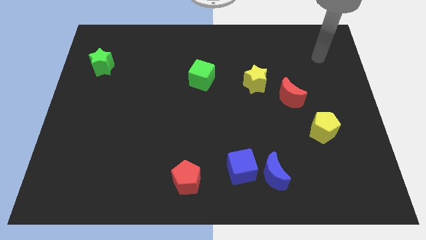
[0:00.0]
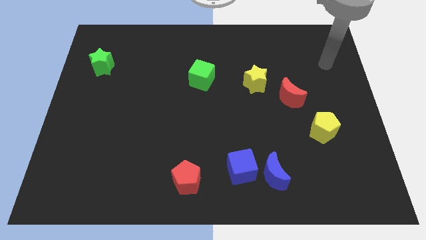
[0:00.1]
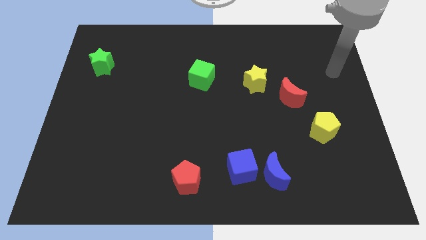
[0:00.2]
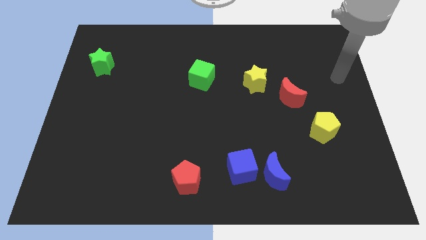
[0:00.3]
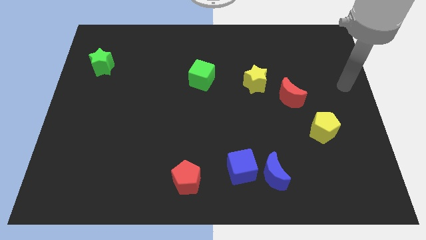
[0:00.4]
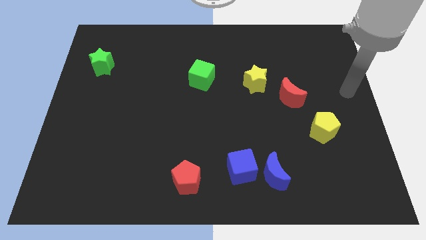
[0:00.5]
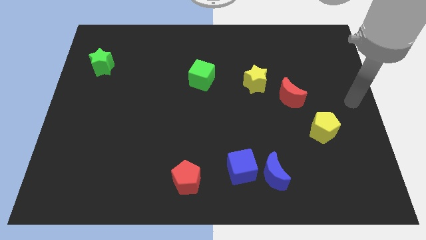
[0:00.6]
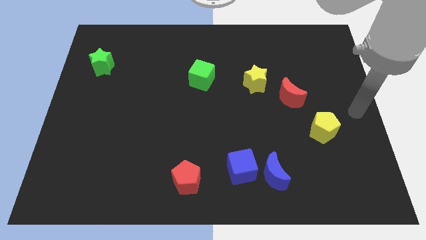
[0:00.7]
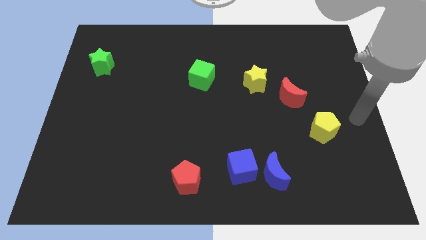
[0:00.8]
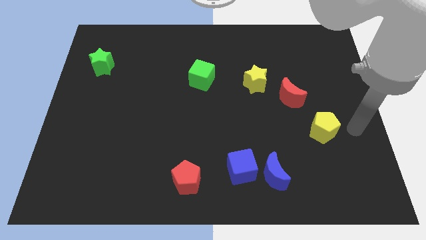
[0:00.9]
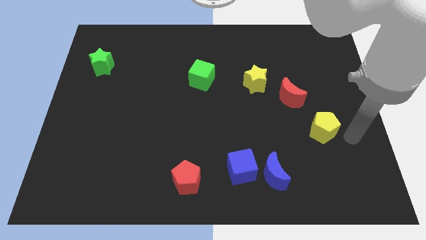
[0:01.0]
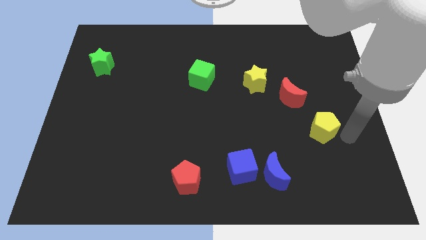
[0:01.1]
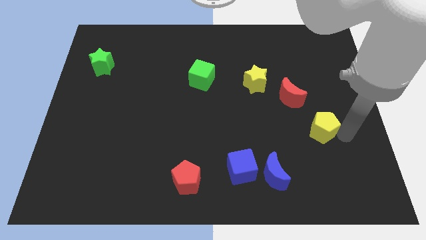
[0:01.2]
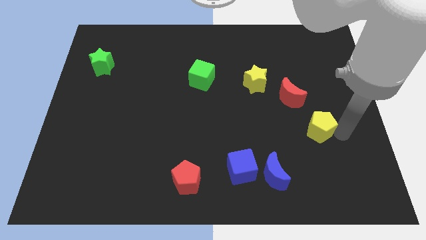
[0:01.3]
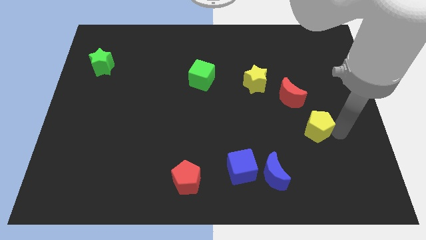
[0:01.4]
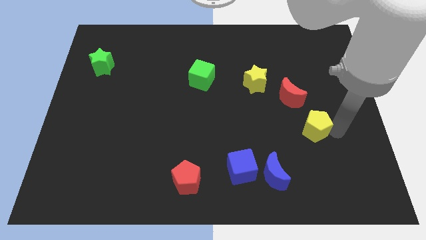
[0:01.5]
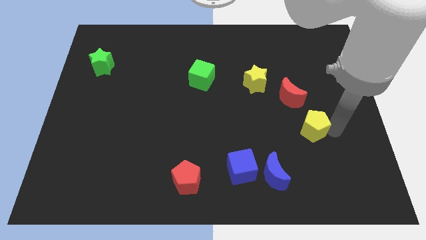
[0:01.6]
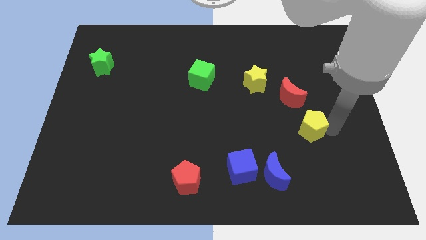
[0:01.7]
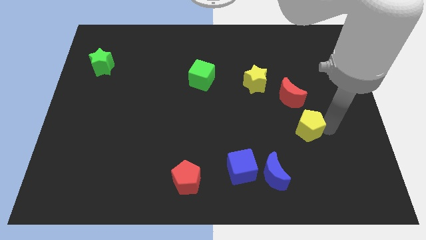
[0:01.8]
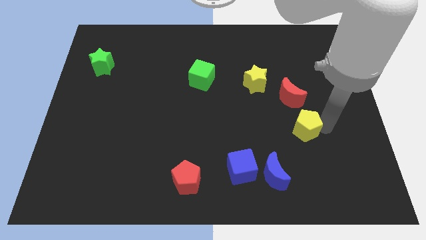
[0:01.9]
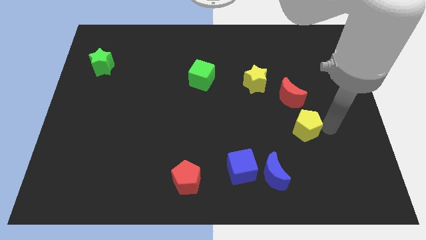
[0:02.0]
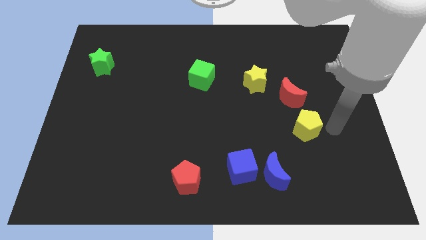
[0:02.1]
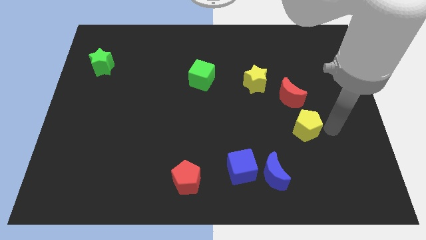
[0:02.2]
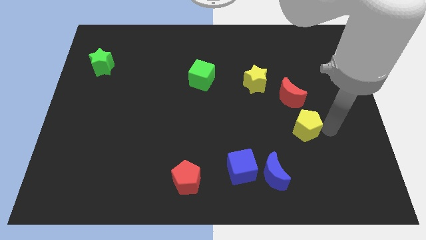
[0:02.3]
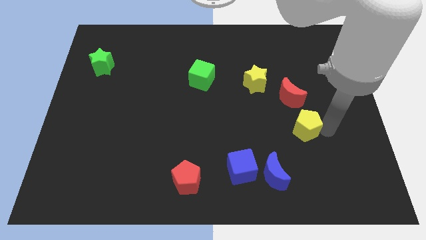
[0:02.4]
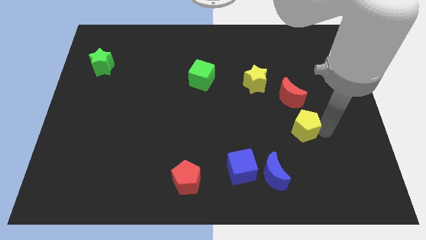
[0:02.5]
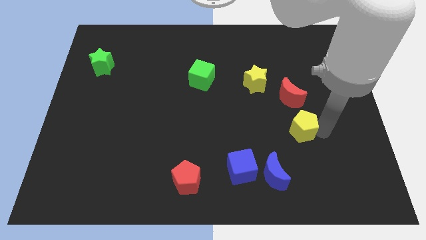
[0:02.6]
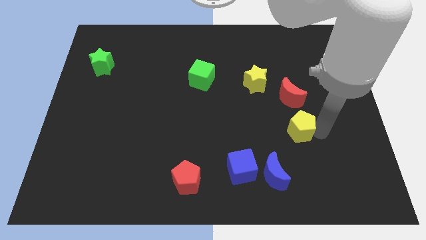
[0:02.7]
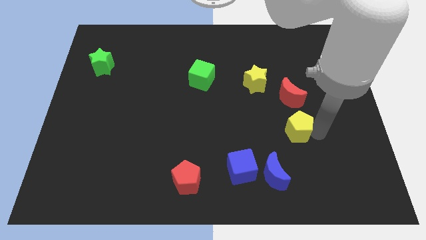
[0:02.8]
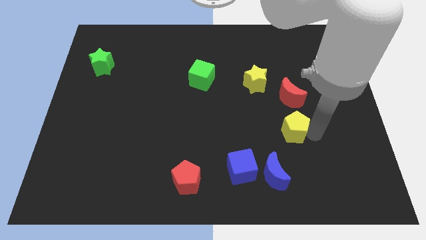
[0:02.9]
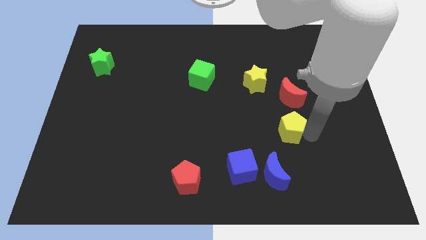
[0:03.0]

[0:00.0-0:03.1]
push the yellow pentagon a little to the left

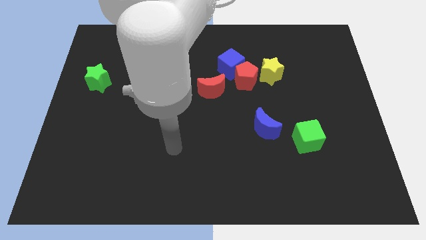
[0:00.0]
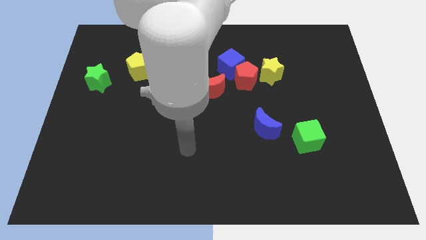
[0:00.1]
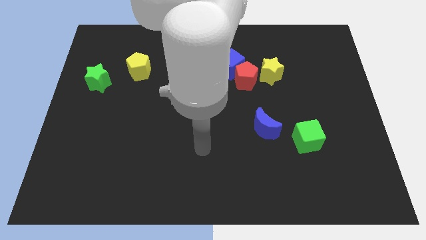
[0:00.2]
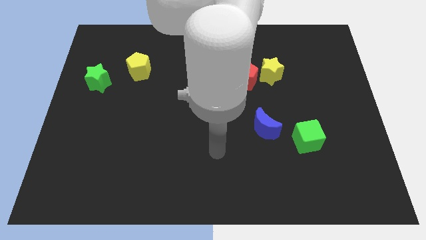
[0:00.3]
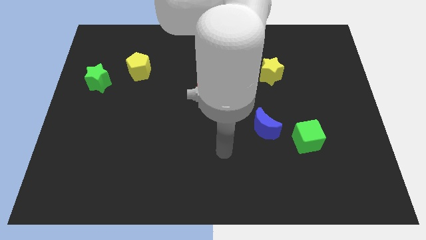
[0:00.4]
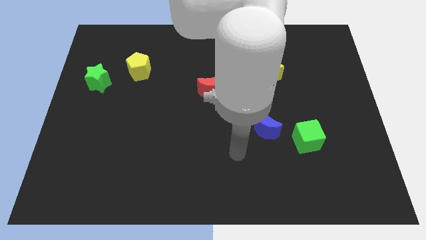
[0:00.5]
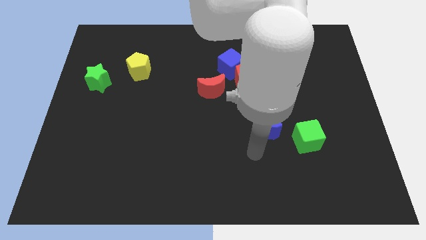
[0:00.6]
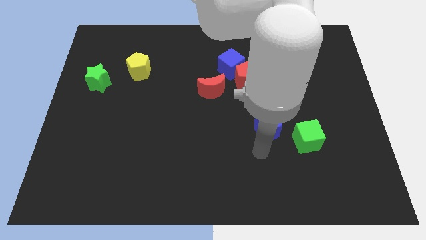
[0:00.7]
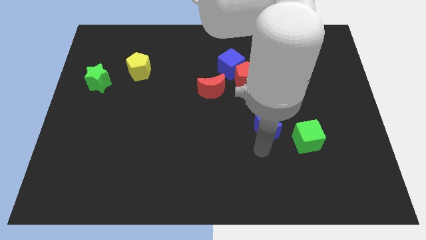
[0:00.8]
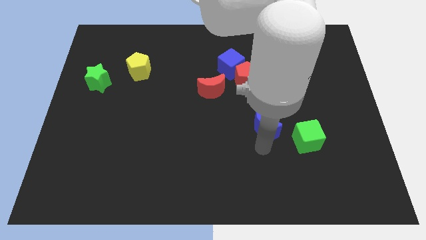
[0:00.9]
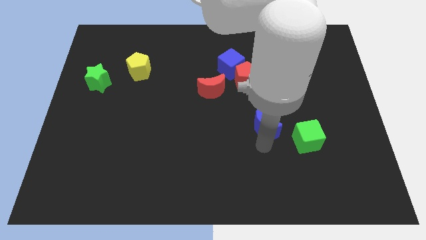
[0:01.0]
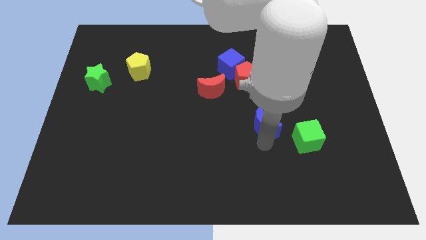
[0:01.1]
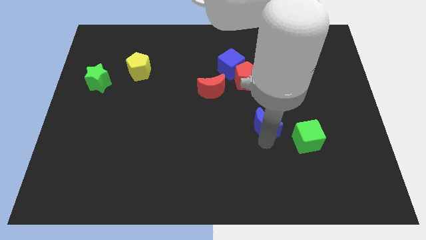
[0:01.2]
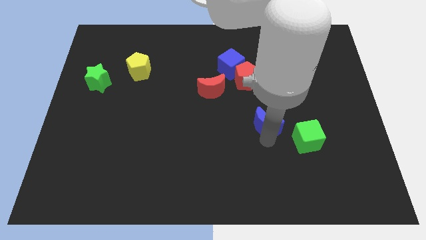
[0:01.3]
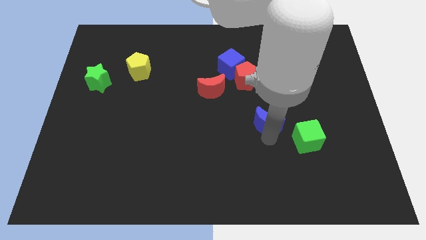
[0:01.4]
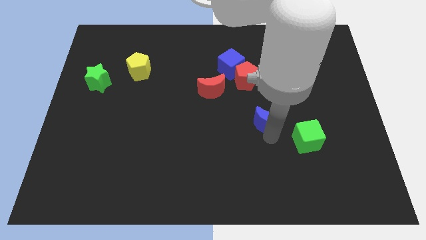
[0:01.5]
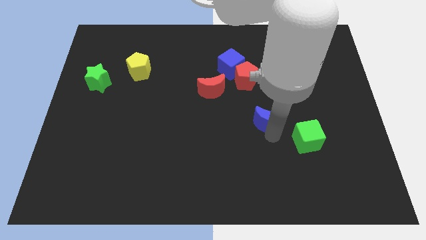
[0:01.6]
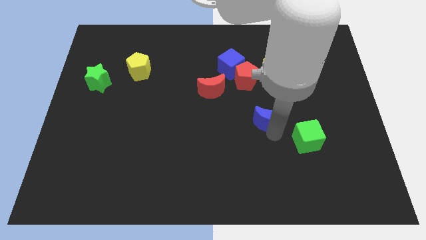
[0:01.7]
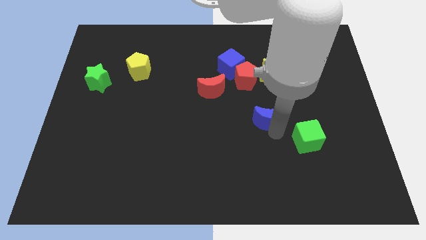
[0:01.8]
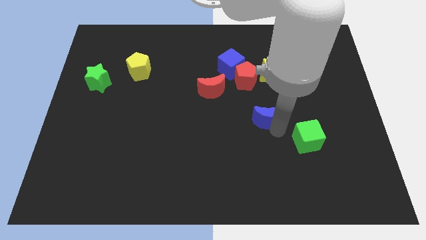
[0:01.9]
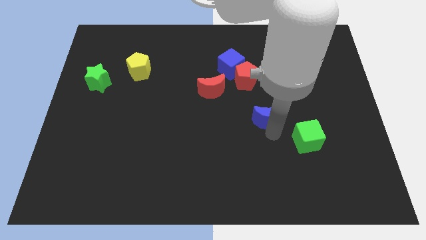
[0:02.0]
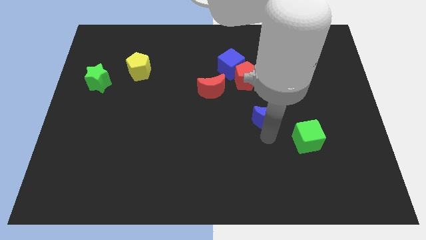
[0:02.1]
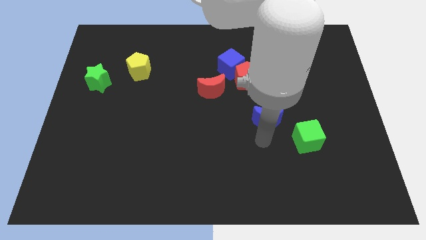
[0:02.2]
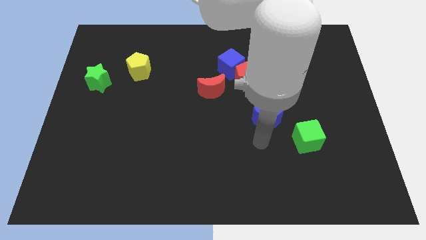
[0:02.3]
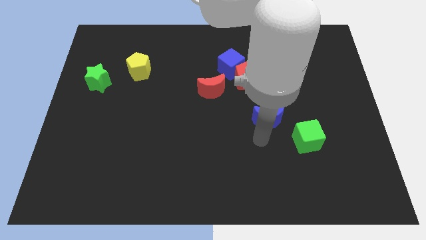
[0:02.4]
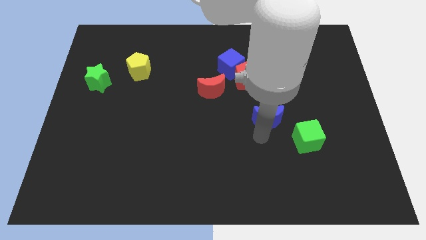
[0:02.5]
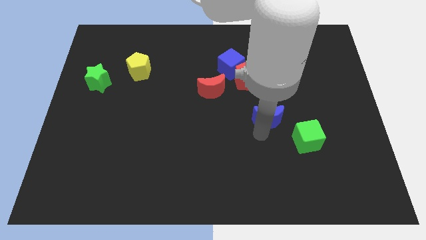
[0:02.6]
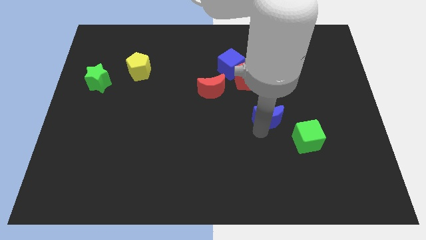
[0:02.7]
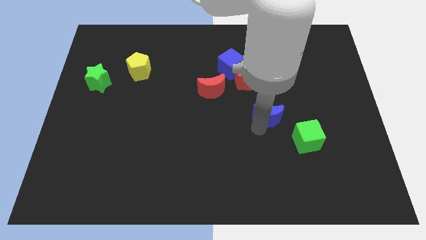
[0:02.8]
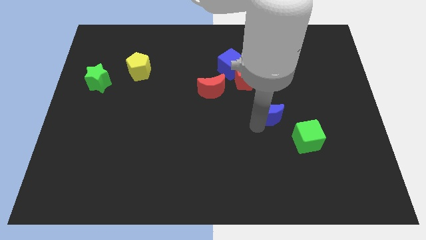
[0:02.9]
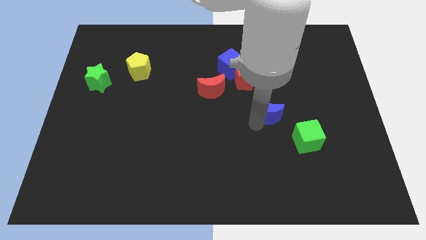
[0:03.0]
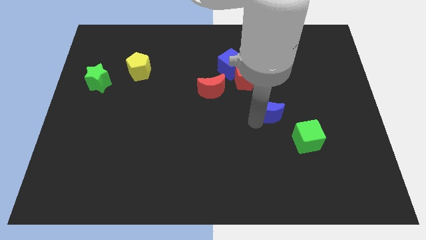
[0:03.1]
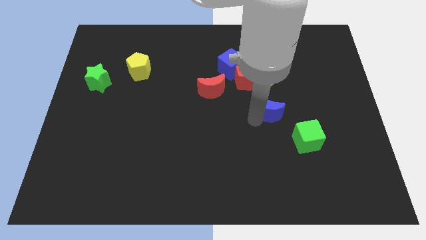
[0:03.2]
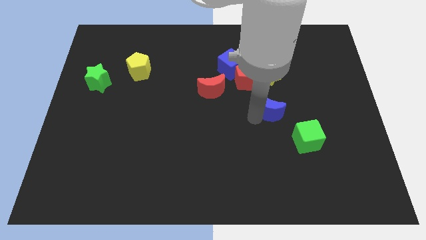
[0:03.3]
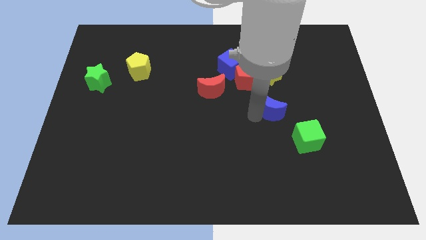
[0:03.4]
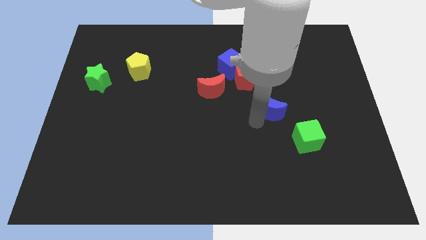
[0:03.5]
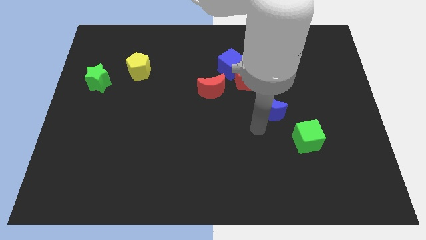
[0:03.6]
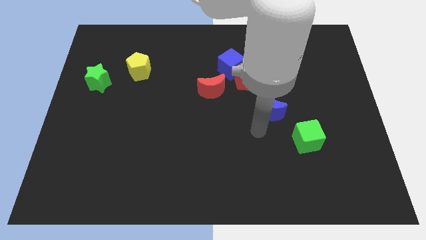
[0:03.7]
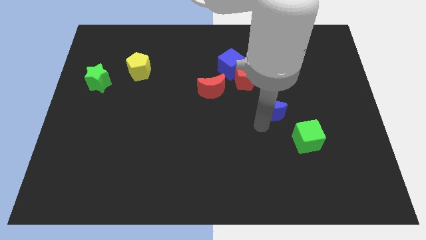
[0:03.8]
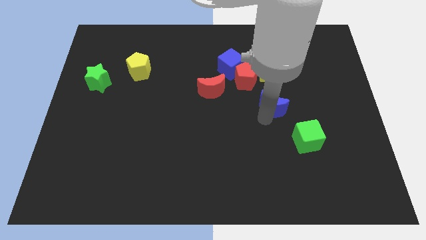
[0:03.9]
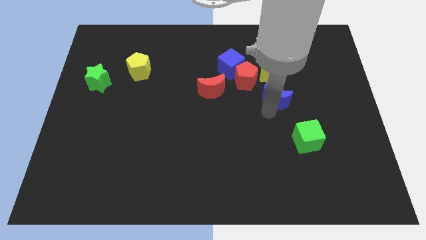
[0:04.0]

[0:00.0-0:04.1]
move the blue moon a little bit up

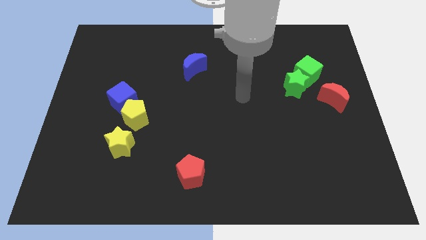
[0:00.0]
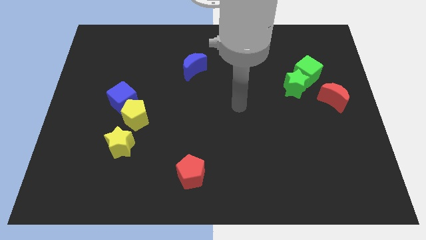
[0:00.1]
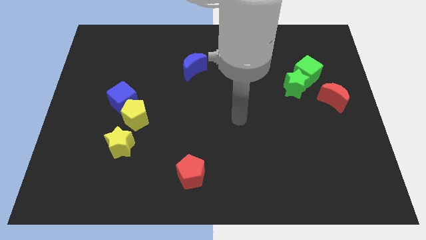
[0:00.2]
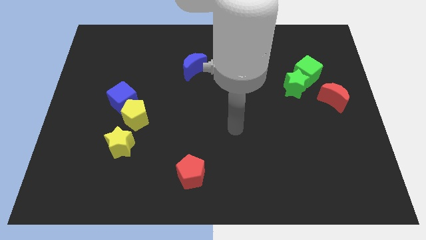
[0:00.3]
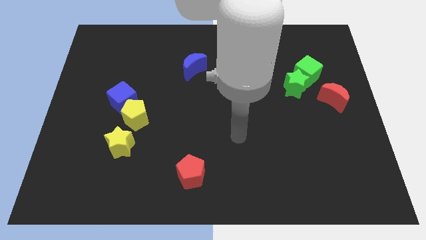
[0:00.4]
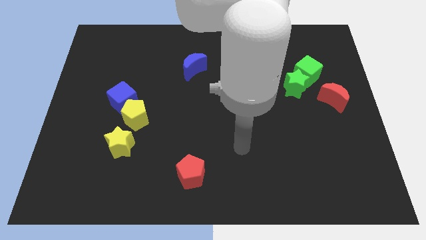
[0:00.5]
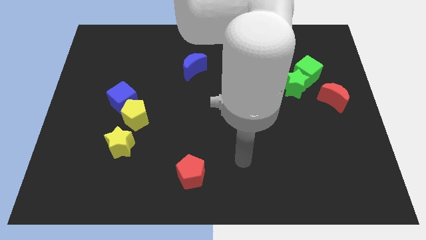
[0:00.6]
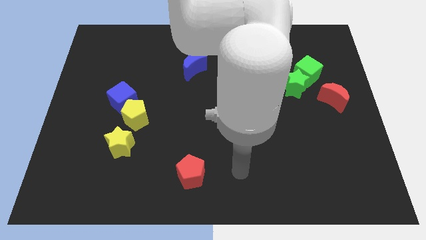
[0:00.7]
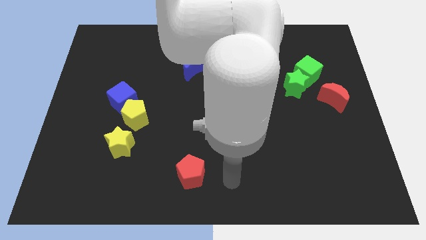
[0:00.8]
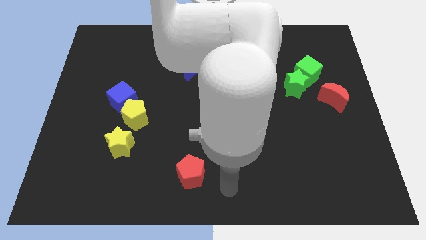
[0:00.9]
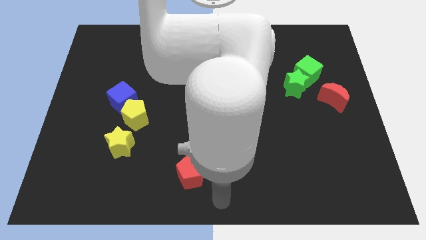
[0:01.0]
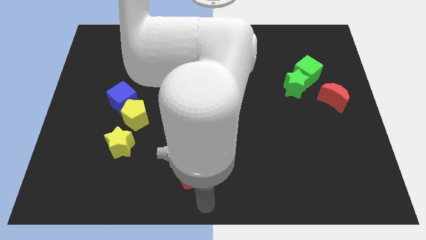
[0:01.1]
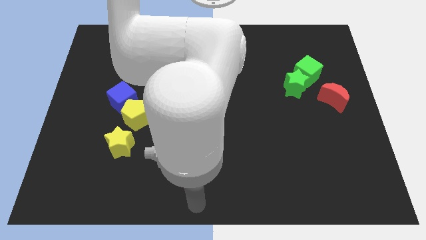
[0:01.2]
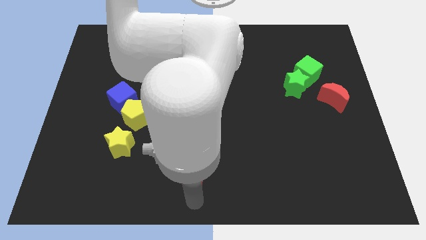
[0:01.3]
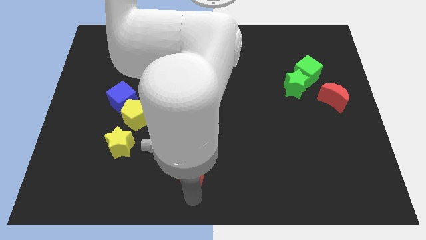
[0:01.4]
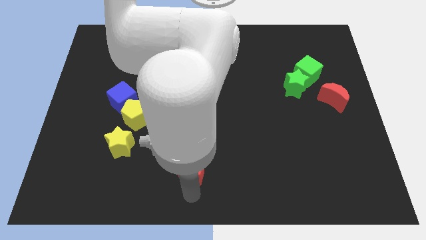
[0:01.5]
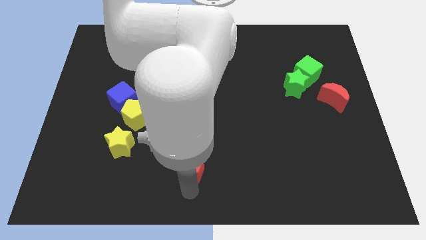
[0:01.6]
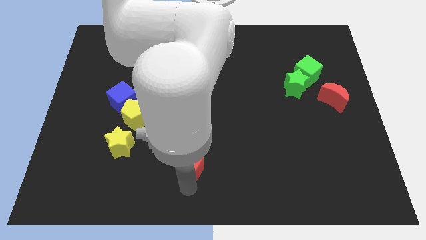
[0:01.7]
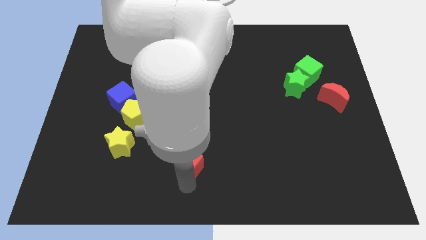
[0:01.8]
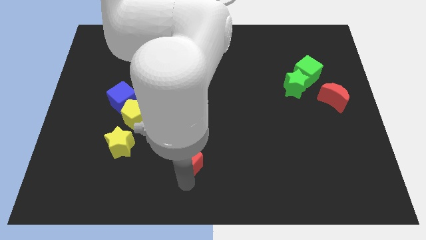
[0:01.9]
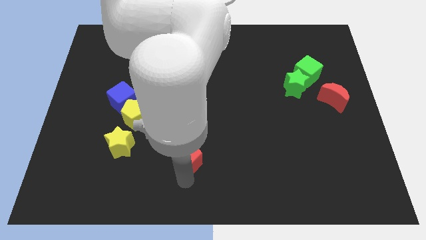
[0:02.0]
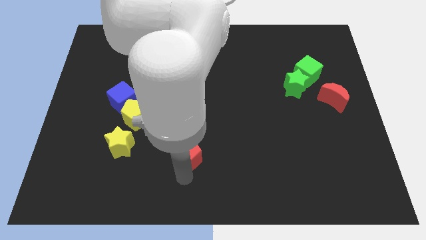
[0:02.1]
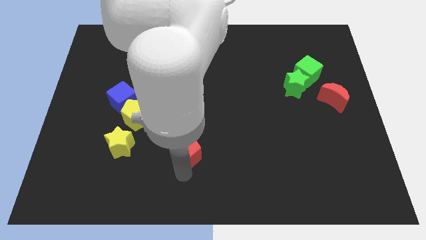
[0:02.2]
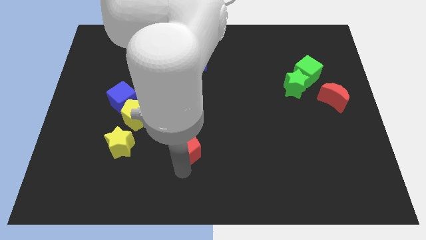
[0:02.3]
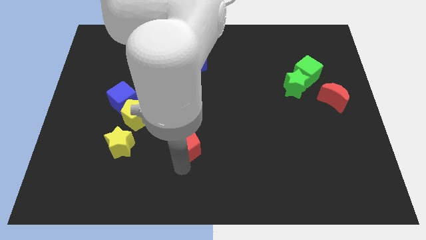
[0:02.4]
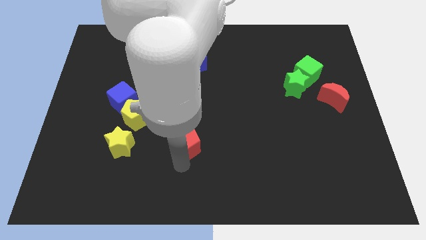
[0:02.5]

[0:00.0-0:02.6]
push the red pentagon up a little bit
